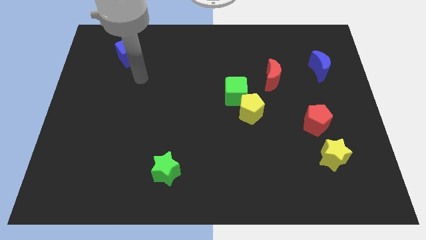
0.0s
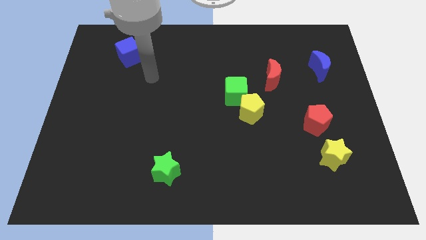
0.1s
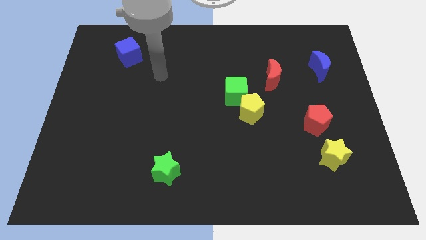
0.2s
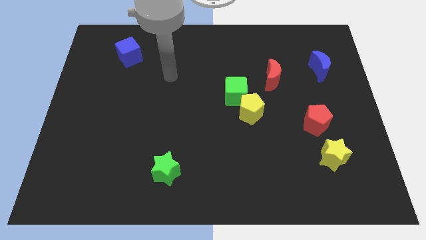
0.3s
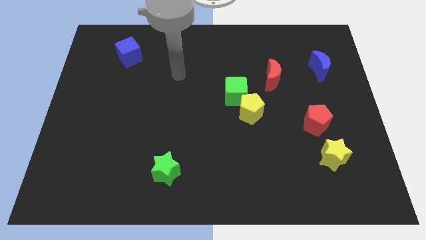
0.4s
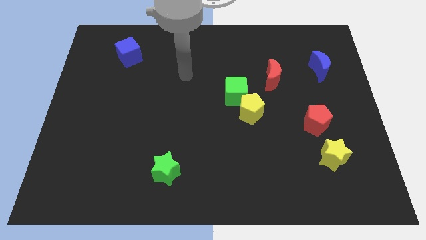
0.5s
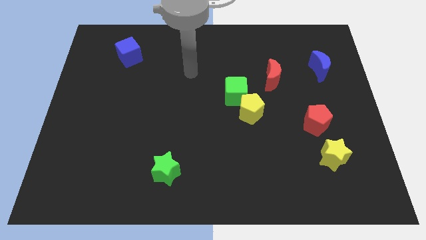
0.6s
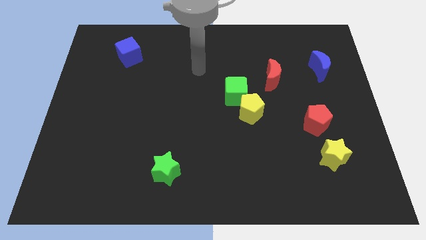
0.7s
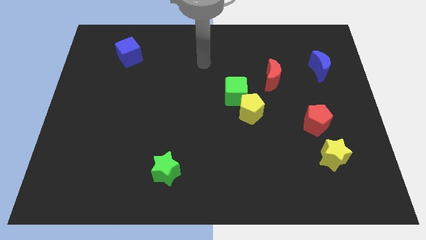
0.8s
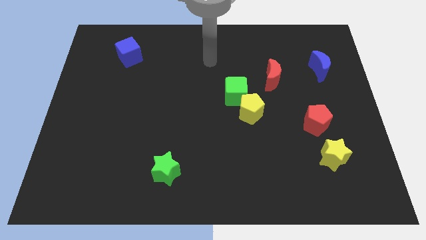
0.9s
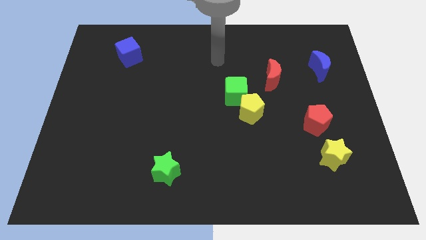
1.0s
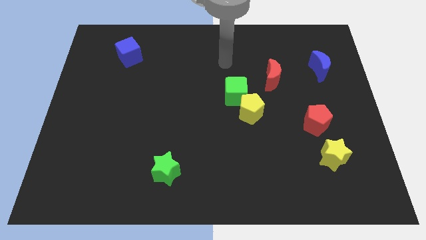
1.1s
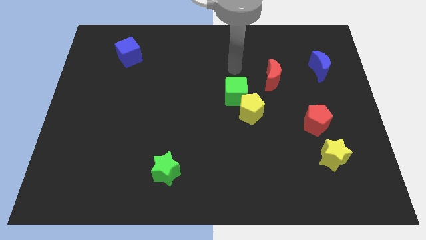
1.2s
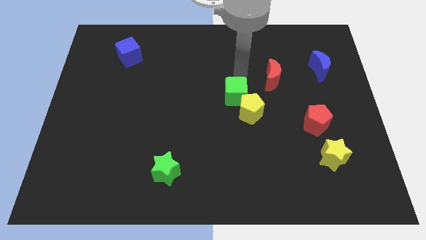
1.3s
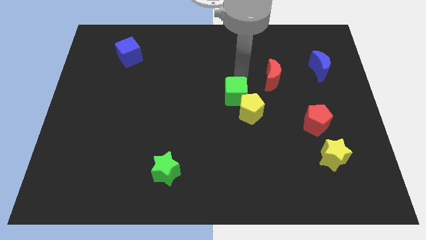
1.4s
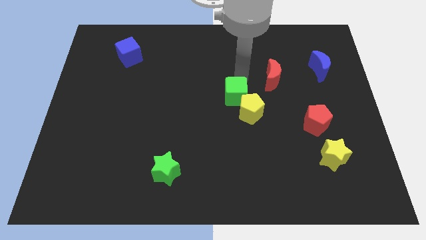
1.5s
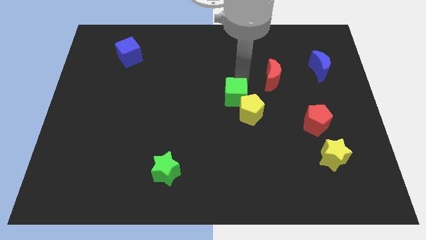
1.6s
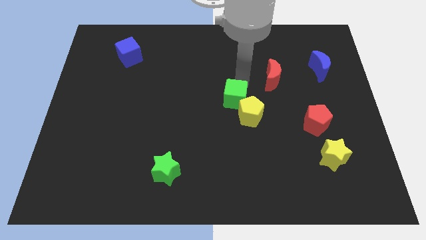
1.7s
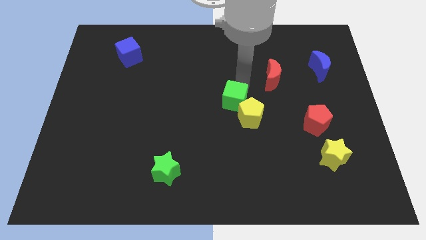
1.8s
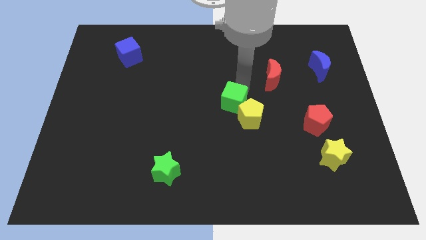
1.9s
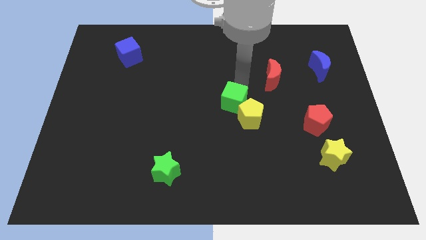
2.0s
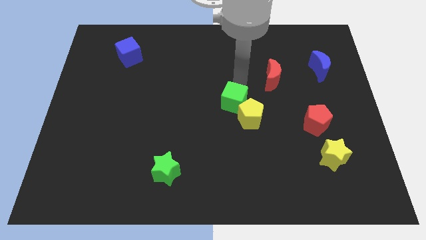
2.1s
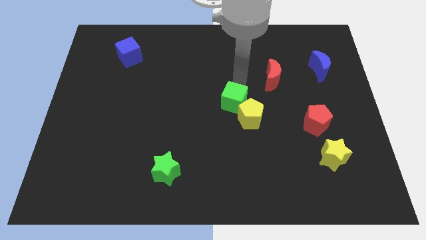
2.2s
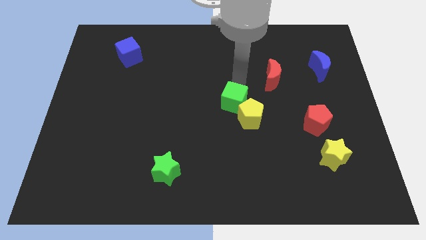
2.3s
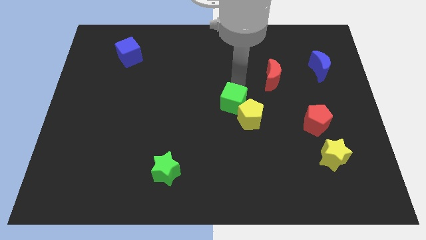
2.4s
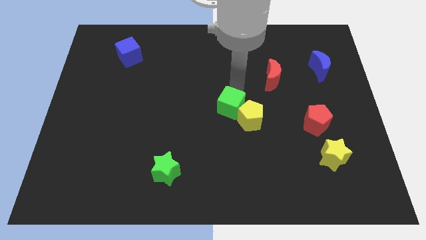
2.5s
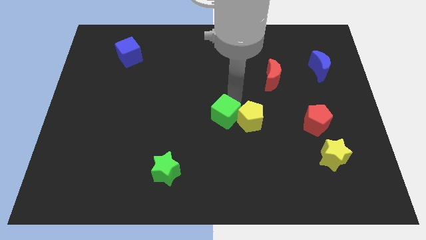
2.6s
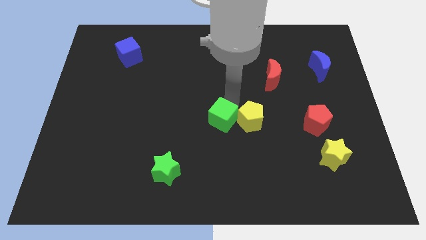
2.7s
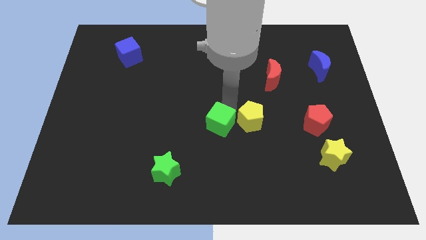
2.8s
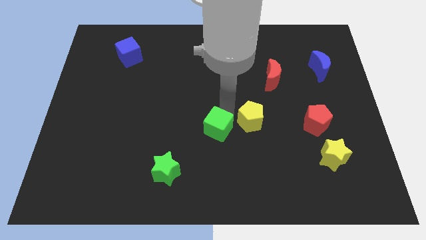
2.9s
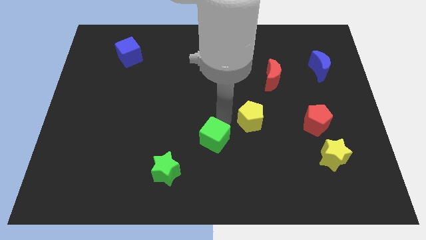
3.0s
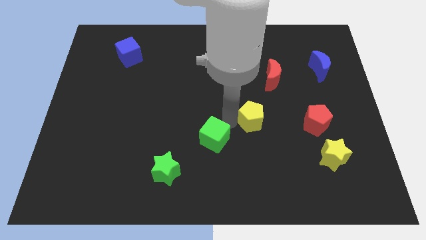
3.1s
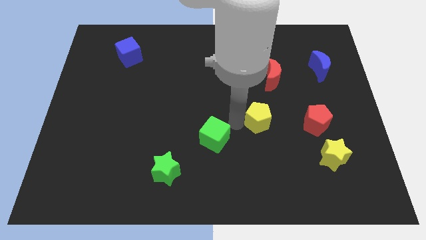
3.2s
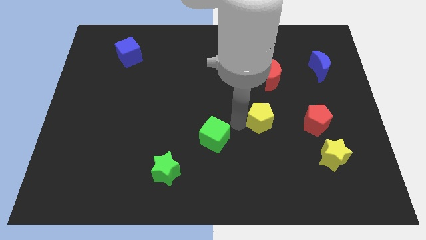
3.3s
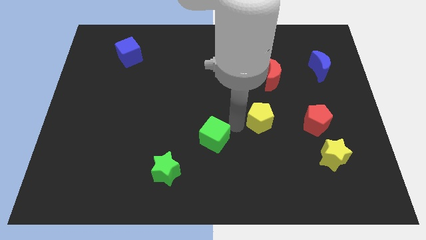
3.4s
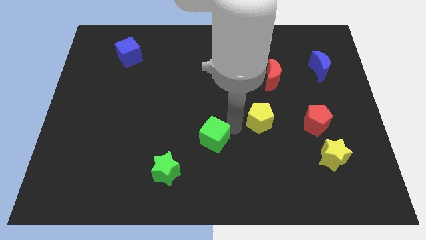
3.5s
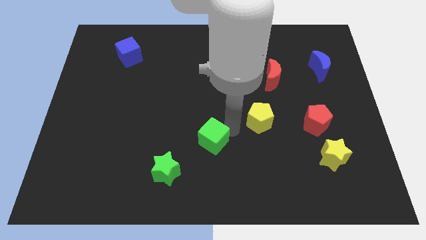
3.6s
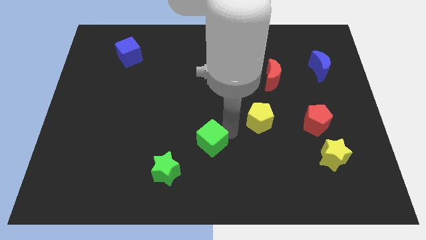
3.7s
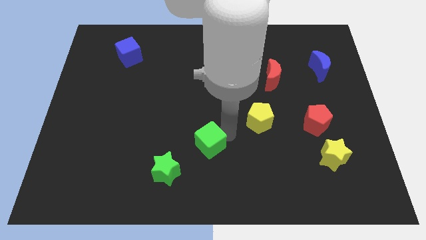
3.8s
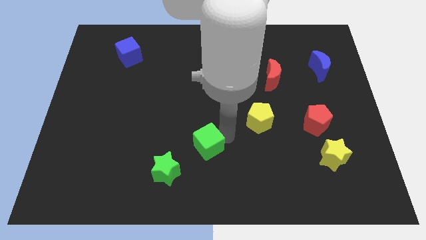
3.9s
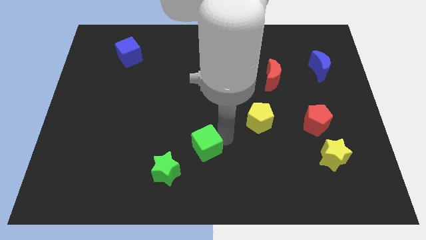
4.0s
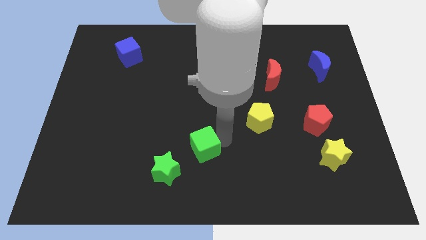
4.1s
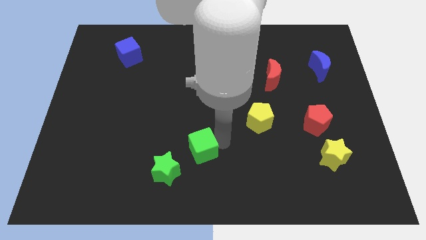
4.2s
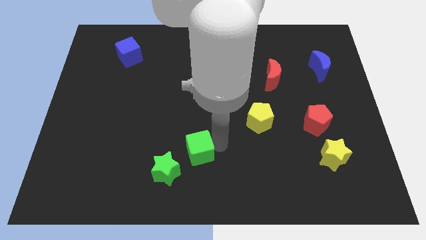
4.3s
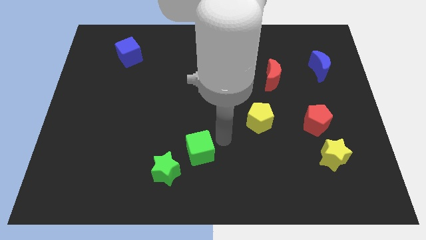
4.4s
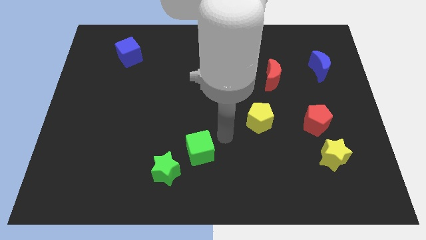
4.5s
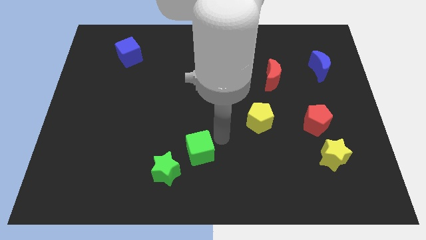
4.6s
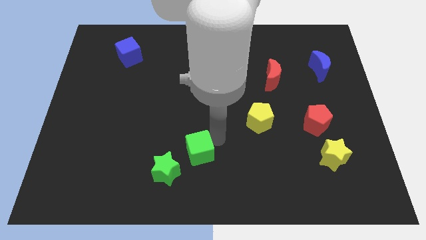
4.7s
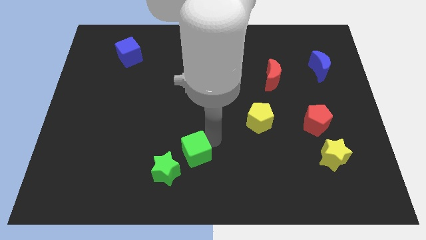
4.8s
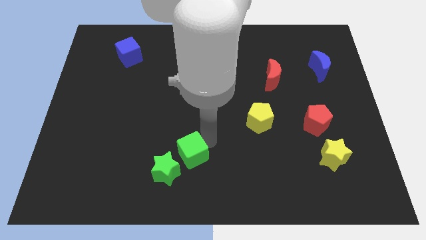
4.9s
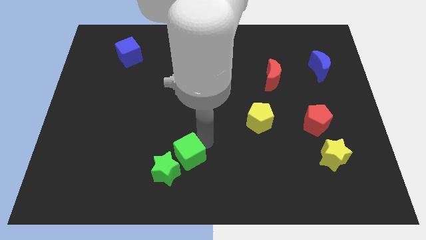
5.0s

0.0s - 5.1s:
put the green cube to the green star

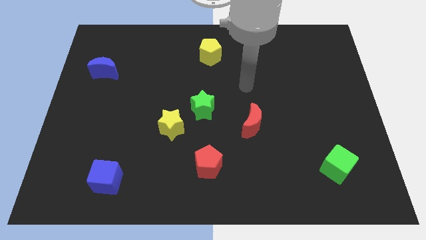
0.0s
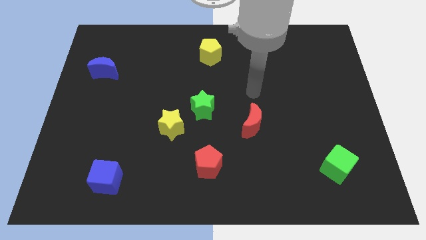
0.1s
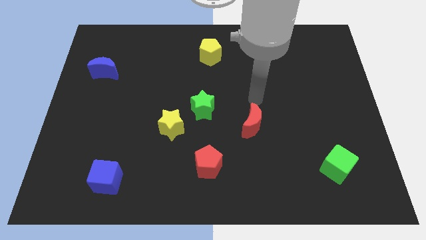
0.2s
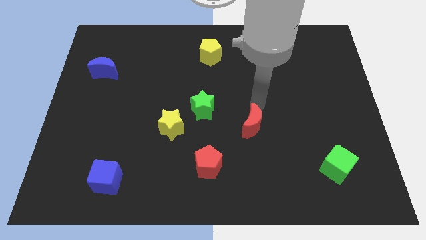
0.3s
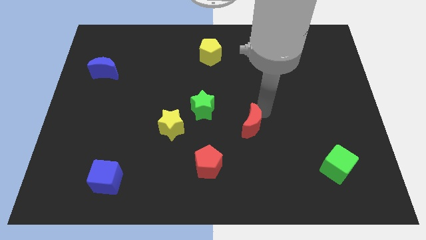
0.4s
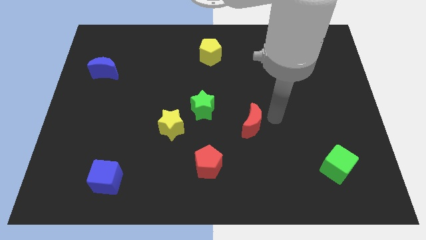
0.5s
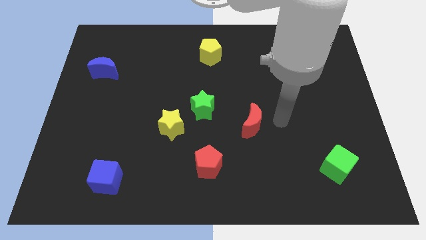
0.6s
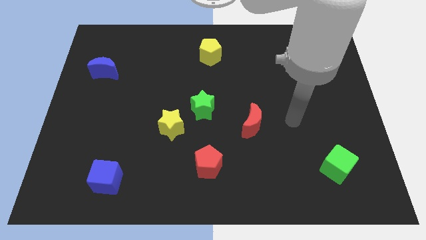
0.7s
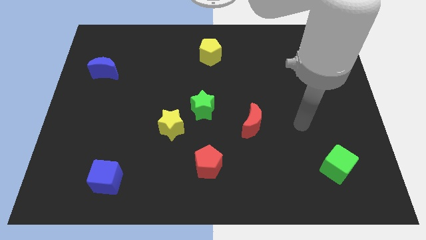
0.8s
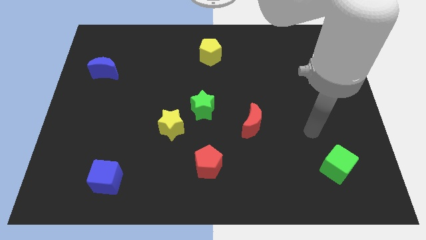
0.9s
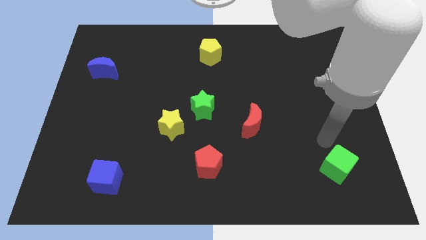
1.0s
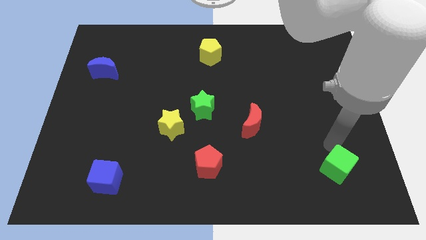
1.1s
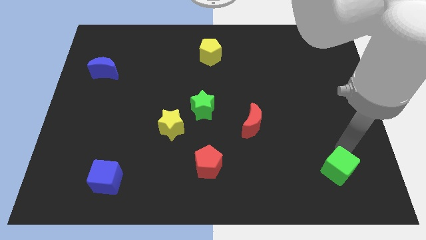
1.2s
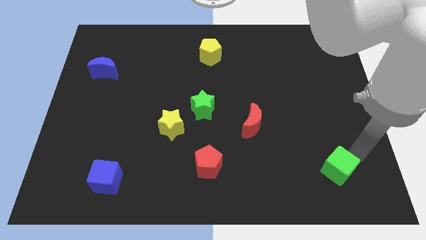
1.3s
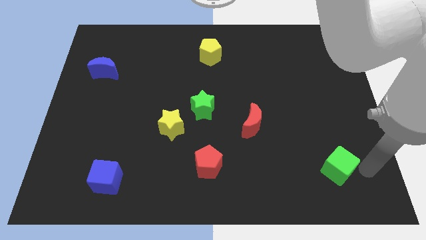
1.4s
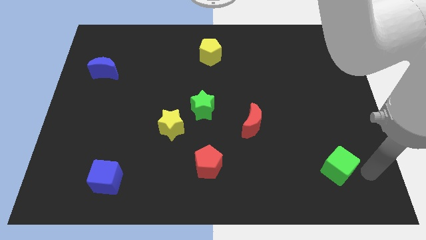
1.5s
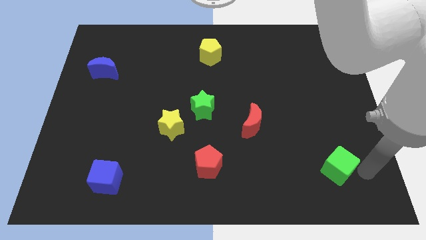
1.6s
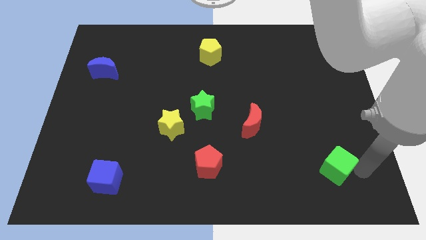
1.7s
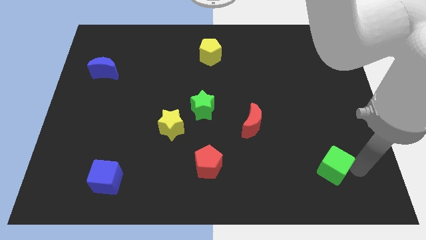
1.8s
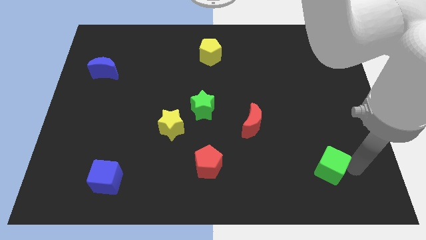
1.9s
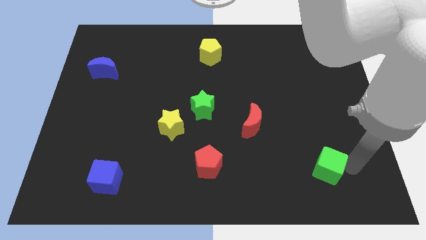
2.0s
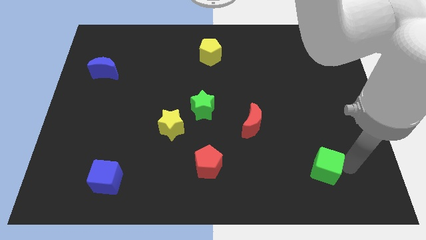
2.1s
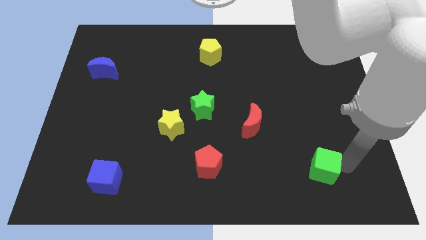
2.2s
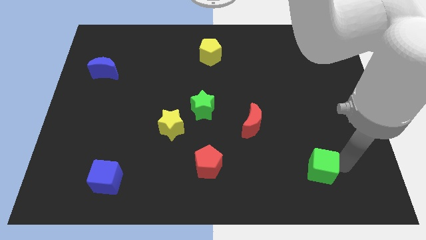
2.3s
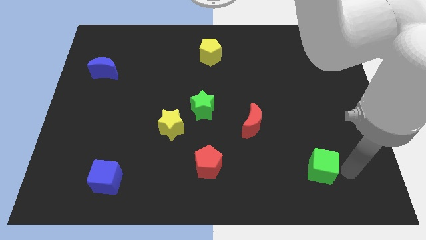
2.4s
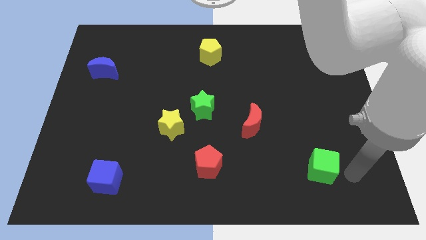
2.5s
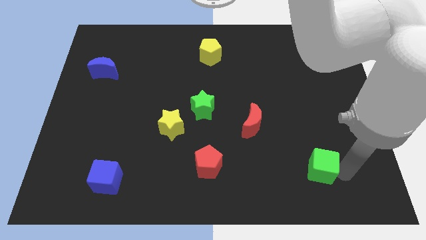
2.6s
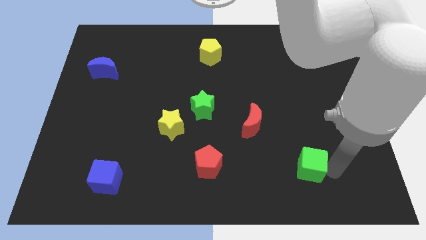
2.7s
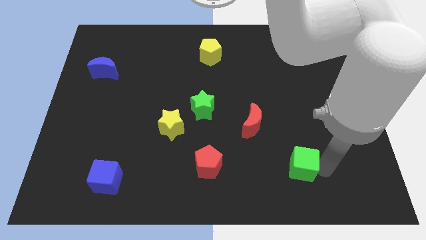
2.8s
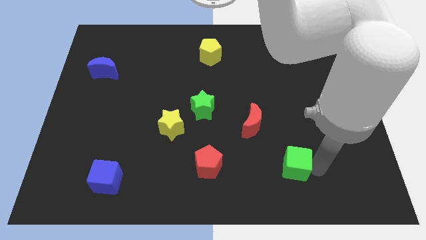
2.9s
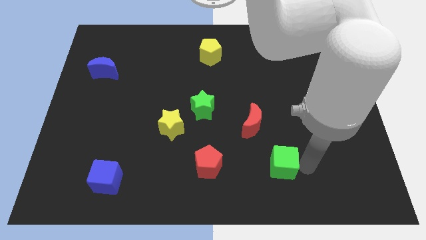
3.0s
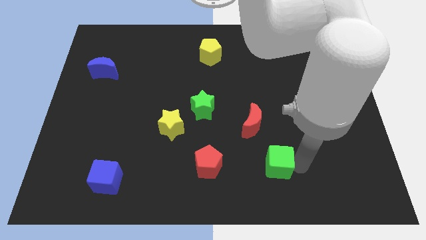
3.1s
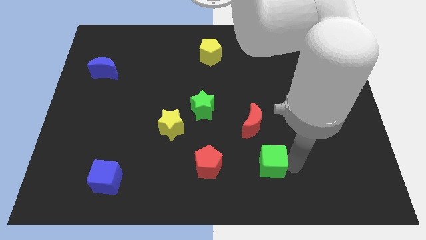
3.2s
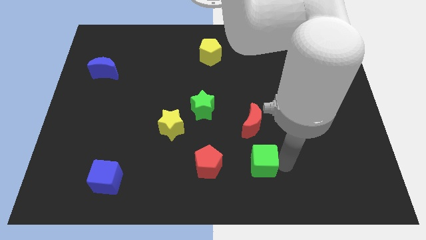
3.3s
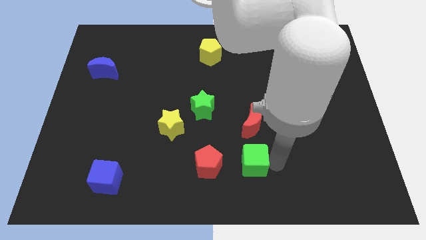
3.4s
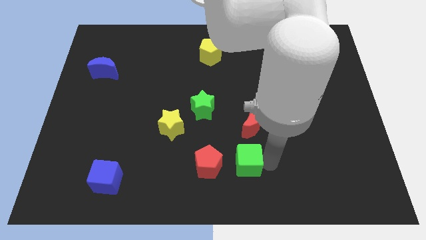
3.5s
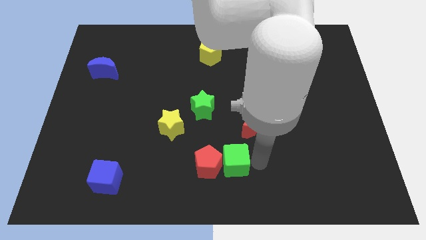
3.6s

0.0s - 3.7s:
push the green cube to the red pentagon
